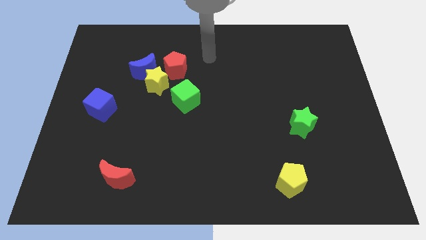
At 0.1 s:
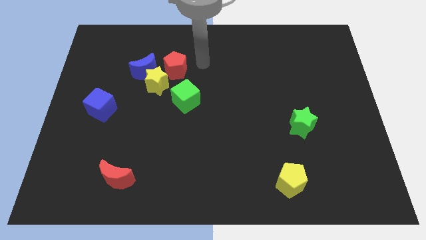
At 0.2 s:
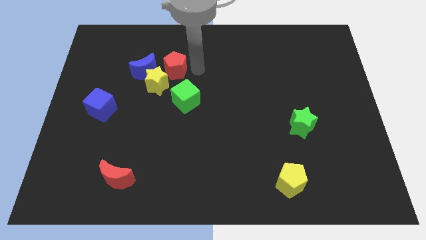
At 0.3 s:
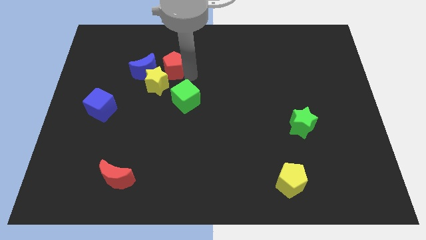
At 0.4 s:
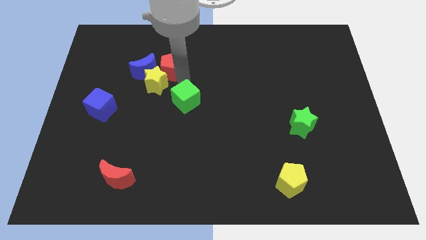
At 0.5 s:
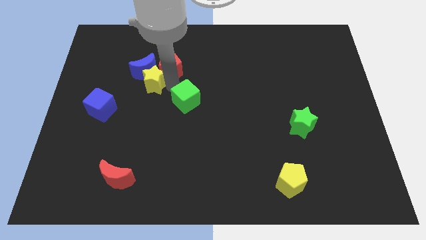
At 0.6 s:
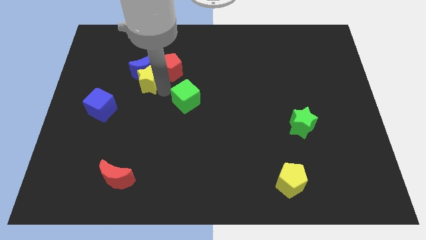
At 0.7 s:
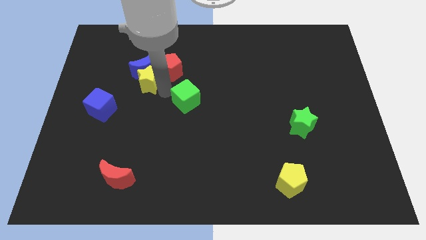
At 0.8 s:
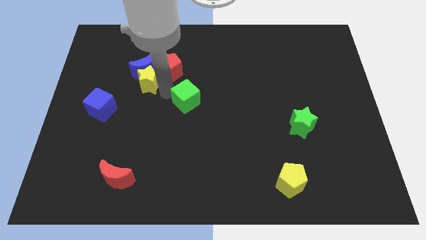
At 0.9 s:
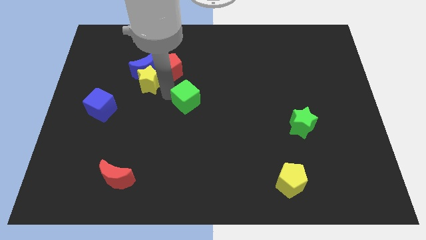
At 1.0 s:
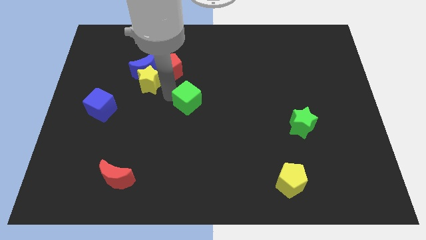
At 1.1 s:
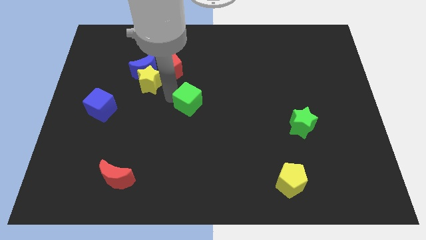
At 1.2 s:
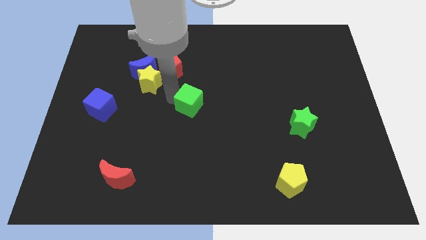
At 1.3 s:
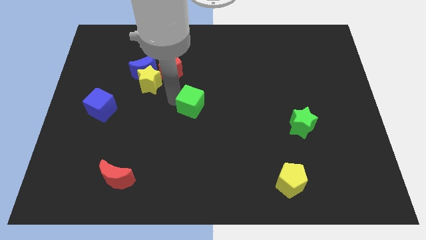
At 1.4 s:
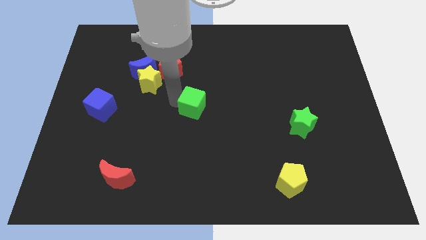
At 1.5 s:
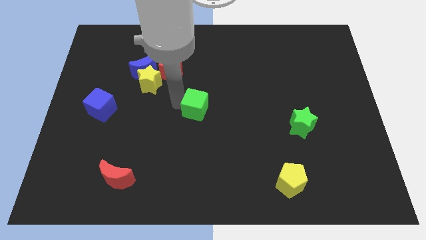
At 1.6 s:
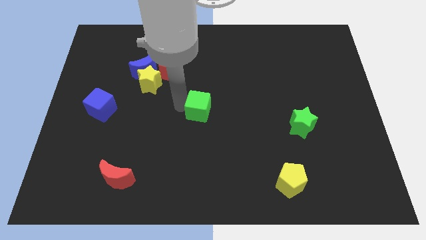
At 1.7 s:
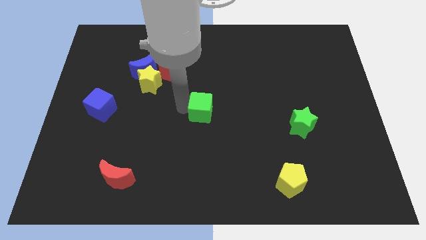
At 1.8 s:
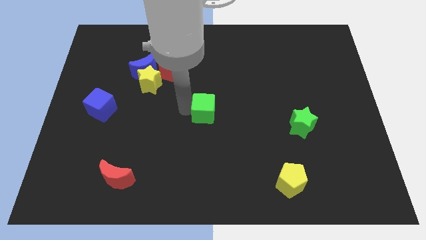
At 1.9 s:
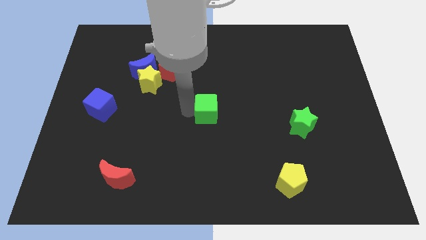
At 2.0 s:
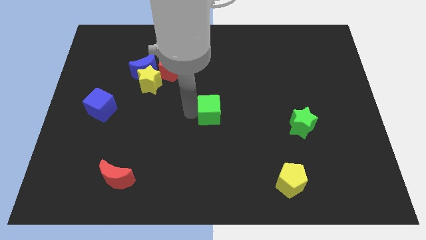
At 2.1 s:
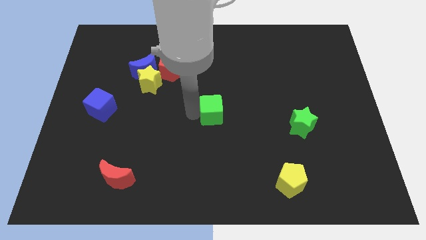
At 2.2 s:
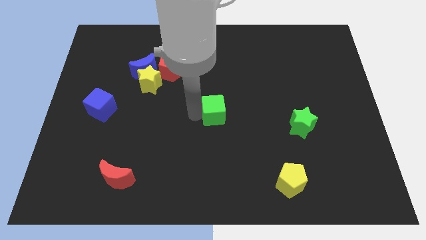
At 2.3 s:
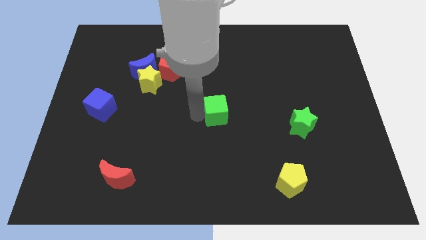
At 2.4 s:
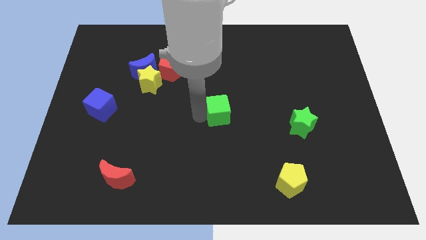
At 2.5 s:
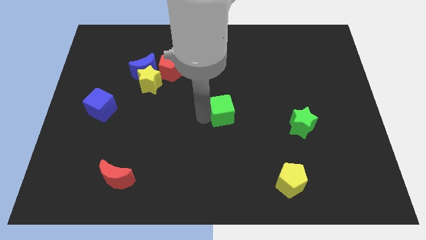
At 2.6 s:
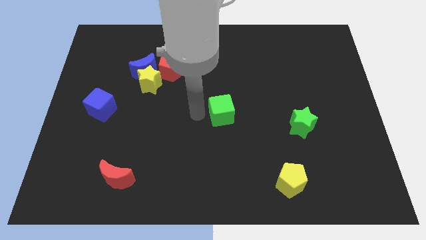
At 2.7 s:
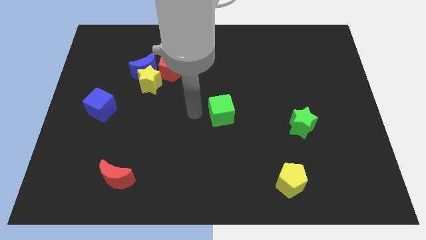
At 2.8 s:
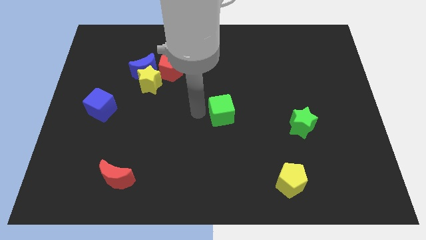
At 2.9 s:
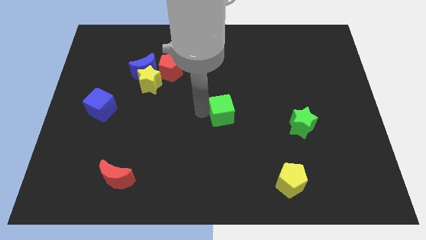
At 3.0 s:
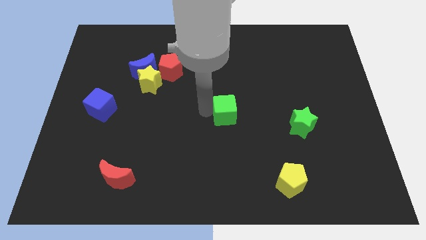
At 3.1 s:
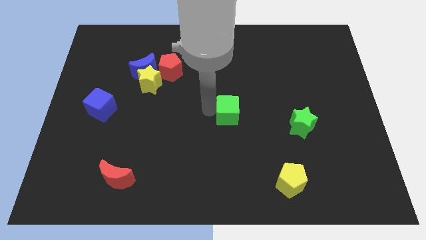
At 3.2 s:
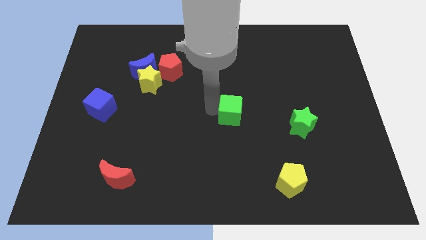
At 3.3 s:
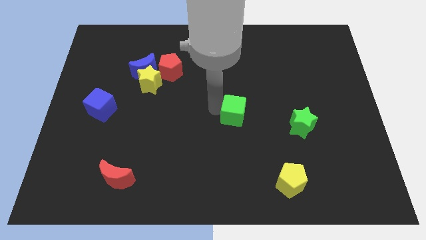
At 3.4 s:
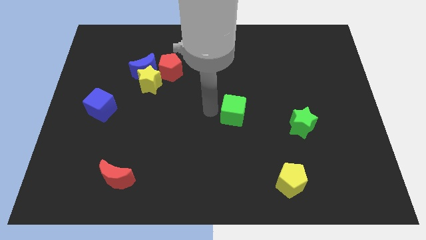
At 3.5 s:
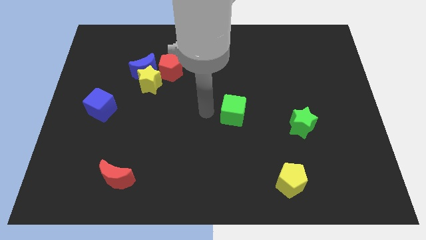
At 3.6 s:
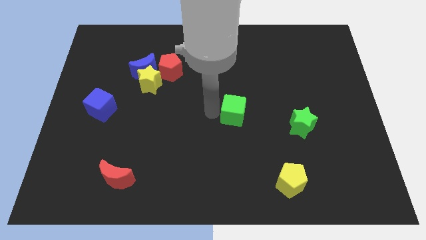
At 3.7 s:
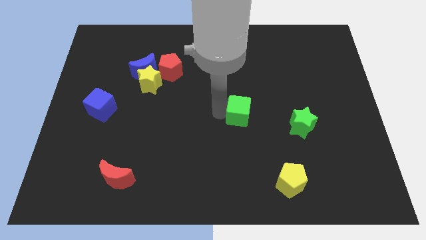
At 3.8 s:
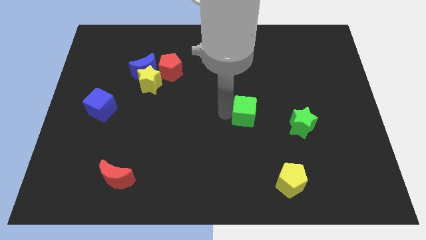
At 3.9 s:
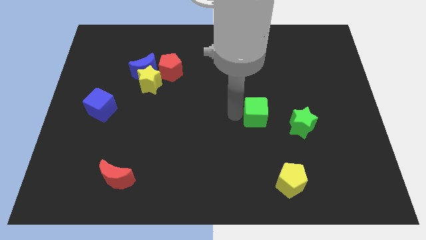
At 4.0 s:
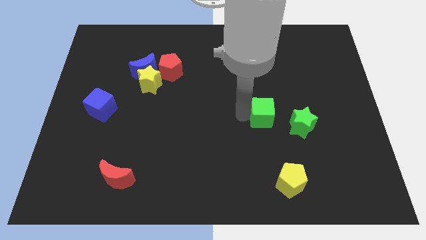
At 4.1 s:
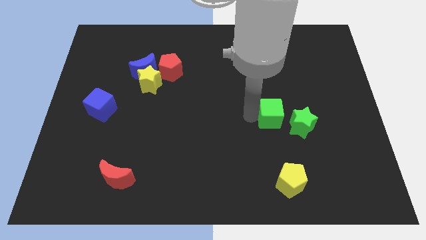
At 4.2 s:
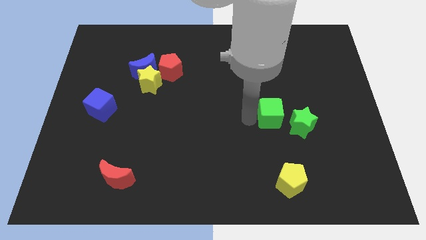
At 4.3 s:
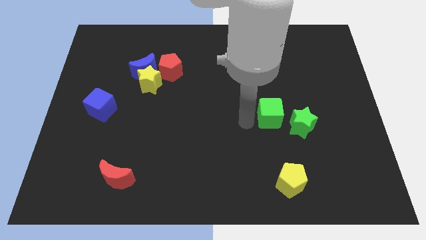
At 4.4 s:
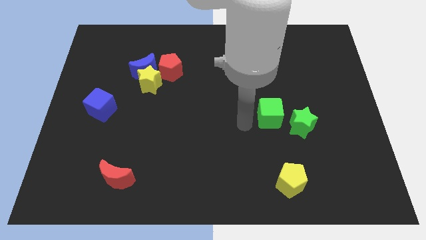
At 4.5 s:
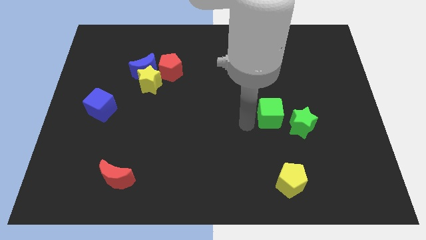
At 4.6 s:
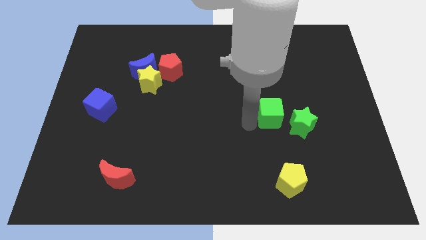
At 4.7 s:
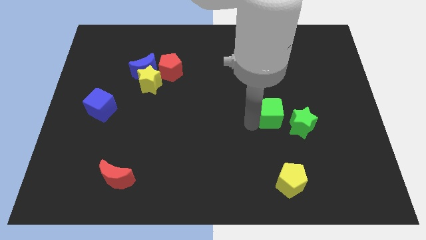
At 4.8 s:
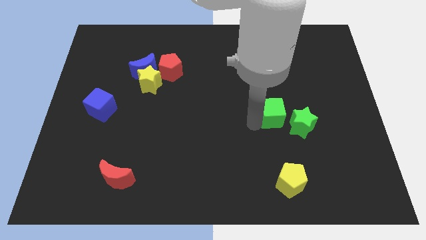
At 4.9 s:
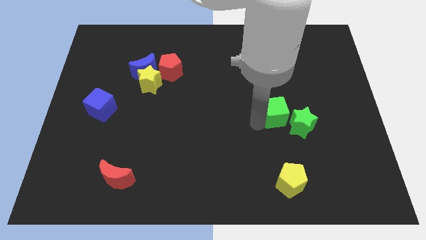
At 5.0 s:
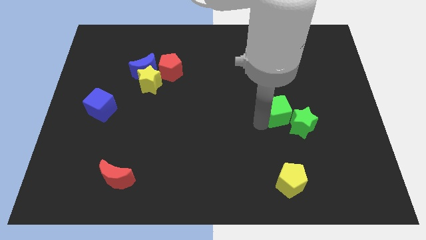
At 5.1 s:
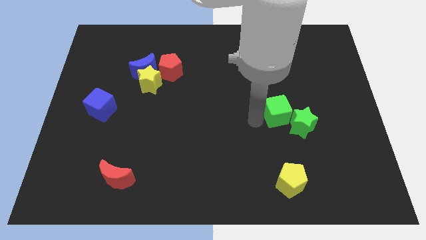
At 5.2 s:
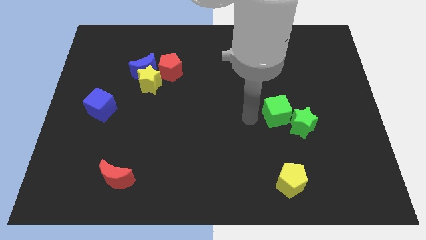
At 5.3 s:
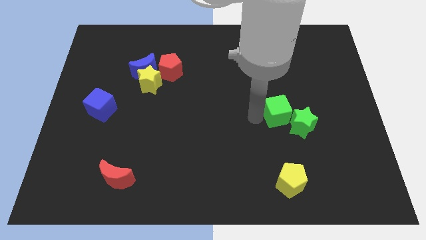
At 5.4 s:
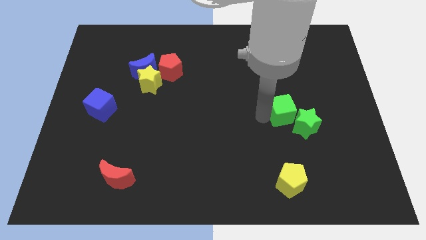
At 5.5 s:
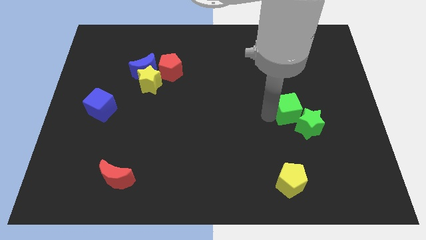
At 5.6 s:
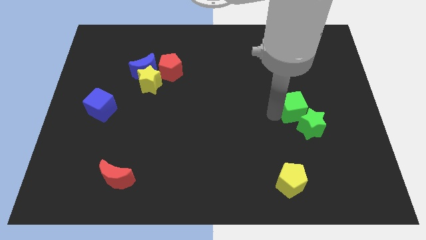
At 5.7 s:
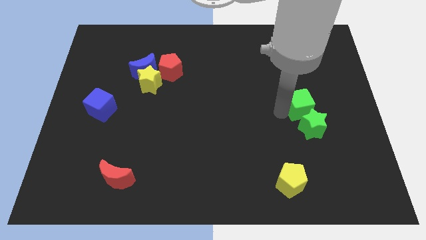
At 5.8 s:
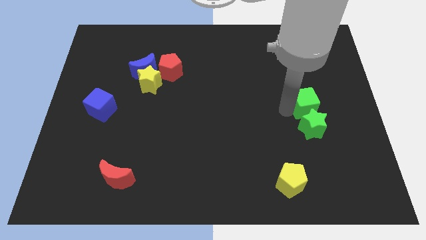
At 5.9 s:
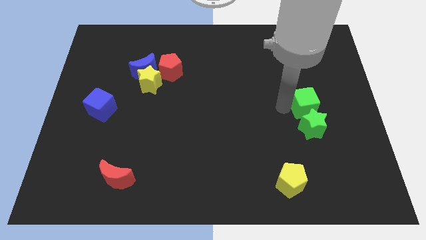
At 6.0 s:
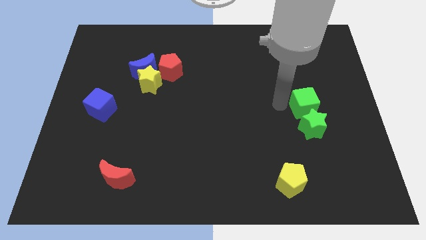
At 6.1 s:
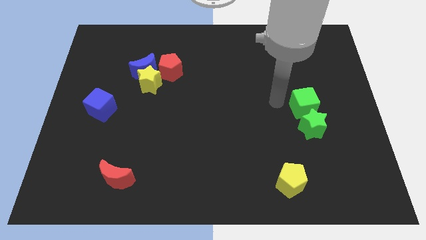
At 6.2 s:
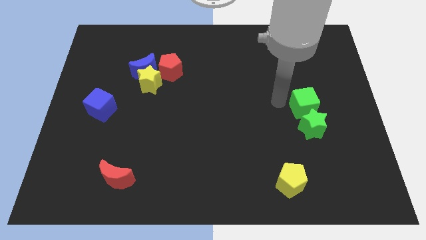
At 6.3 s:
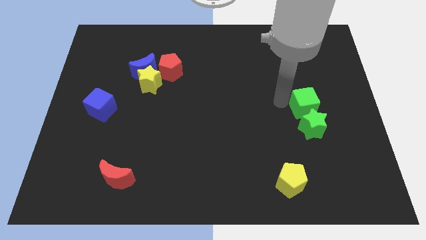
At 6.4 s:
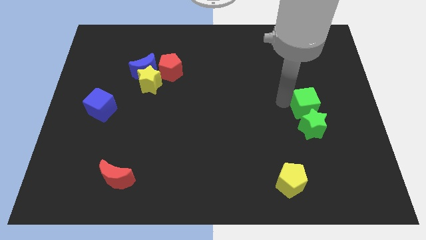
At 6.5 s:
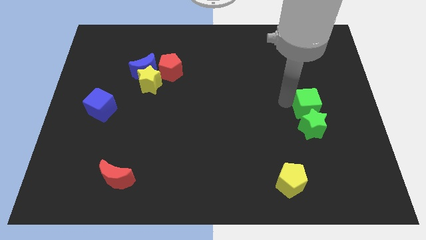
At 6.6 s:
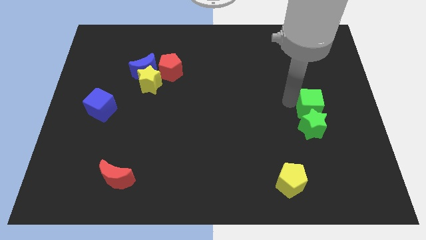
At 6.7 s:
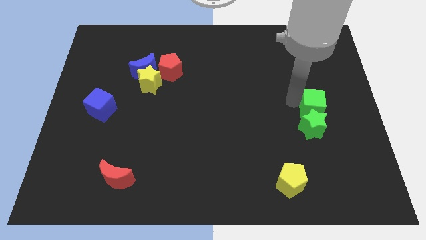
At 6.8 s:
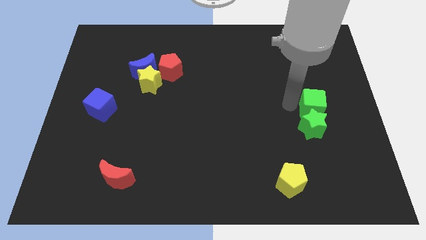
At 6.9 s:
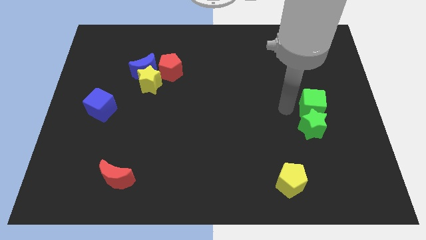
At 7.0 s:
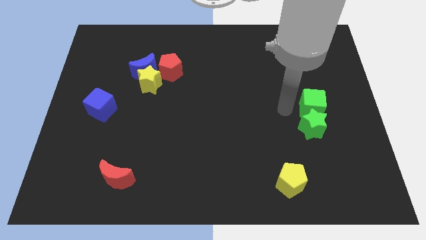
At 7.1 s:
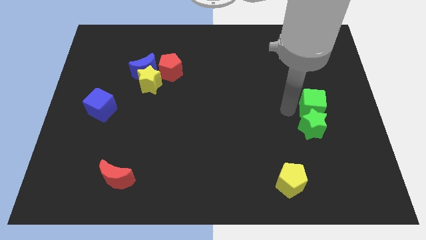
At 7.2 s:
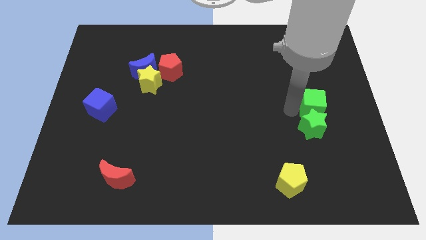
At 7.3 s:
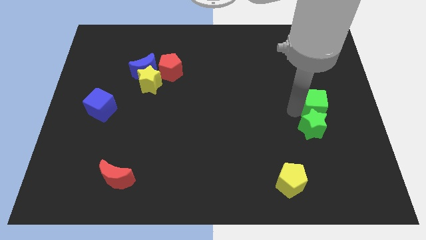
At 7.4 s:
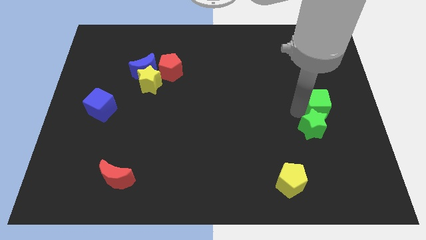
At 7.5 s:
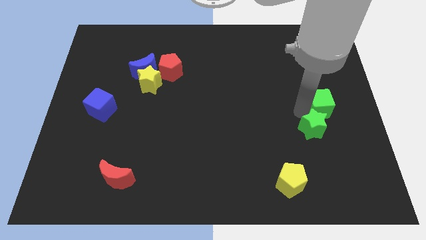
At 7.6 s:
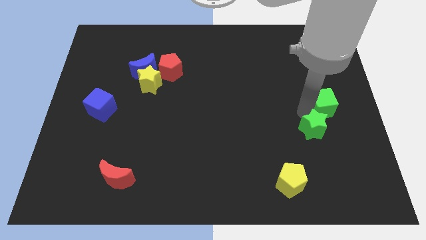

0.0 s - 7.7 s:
put the green cube to the right side
